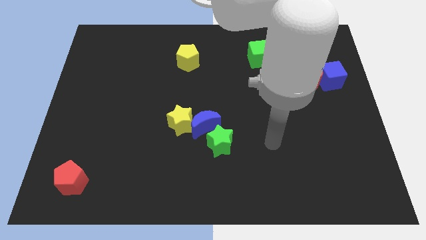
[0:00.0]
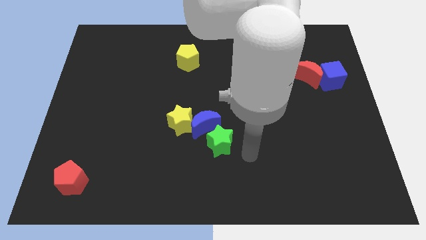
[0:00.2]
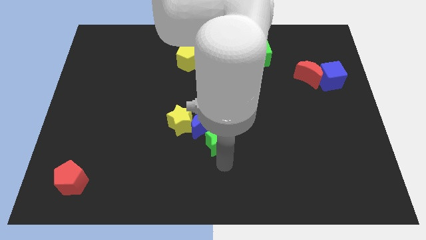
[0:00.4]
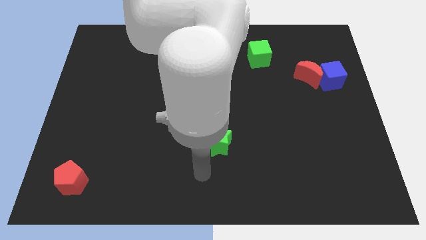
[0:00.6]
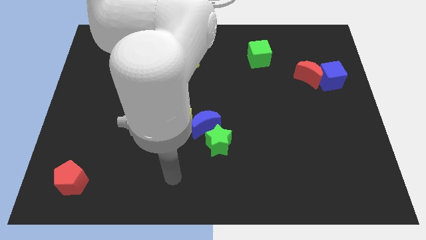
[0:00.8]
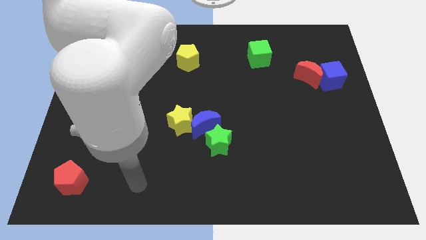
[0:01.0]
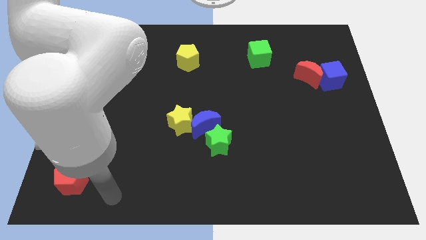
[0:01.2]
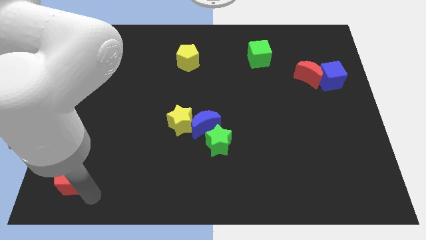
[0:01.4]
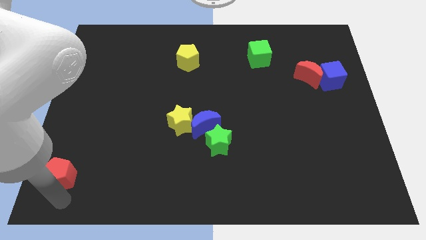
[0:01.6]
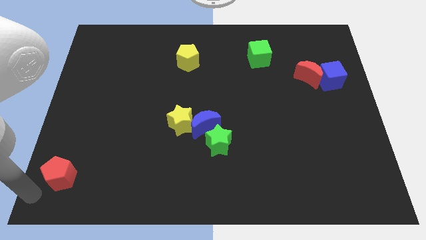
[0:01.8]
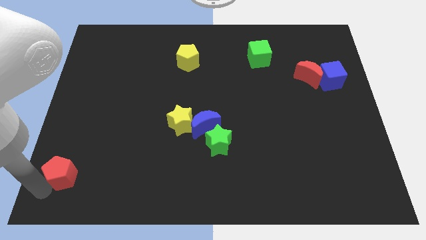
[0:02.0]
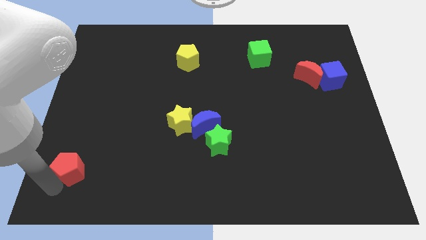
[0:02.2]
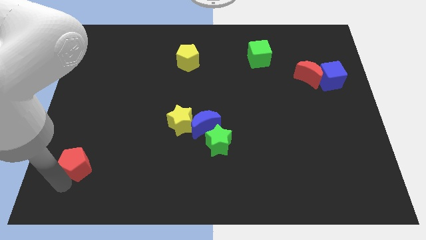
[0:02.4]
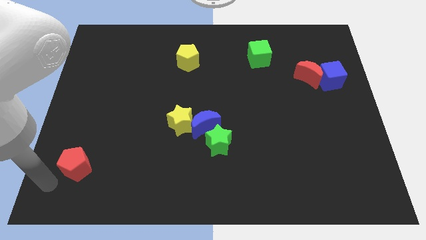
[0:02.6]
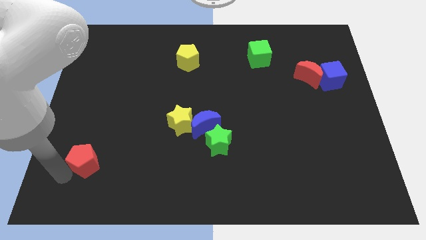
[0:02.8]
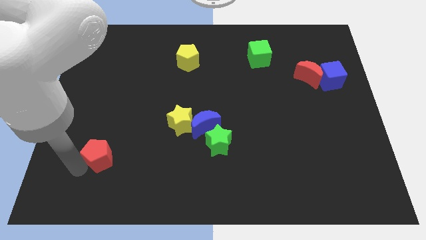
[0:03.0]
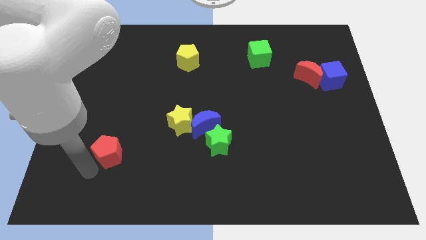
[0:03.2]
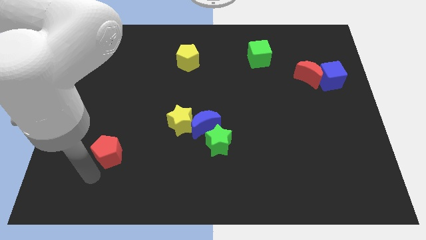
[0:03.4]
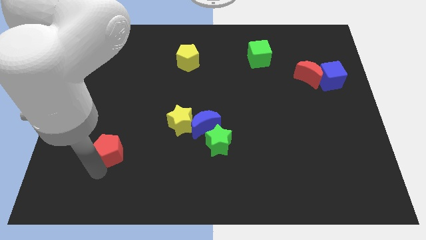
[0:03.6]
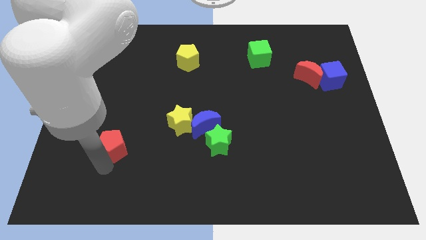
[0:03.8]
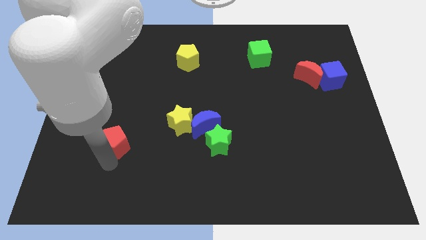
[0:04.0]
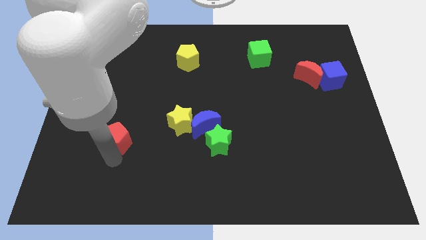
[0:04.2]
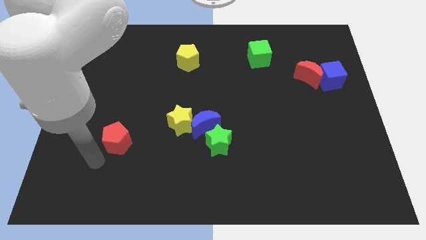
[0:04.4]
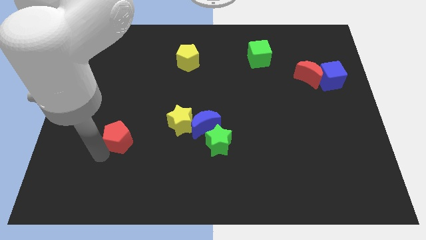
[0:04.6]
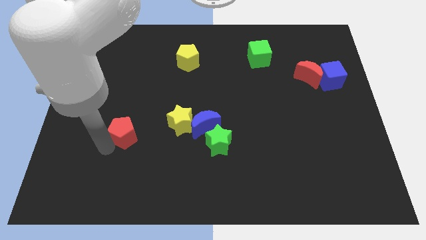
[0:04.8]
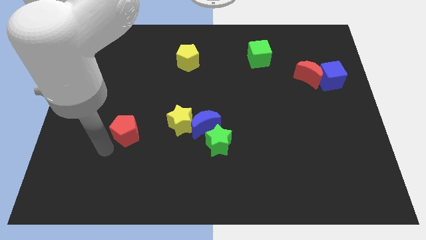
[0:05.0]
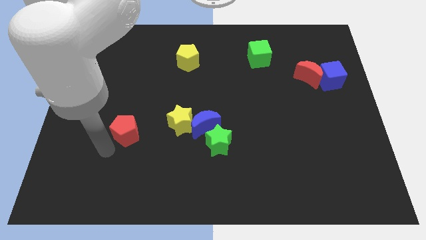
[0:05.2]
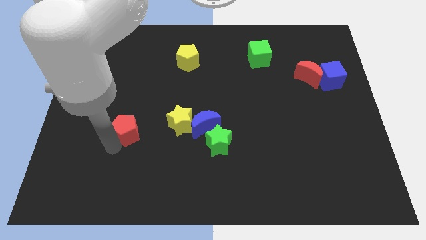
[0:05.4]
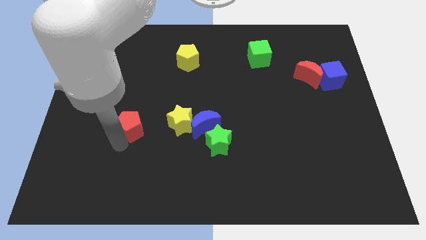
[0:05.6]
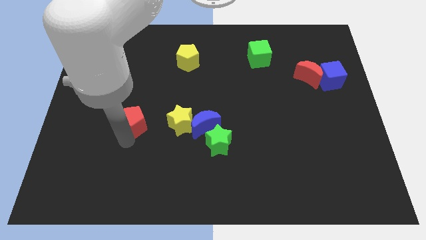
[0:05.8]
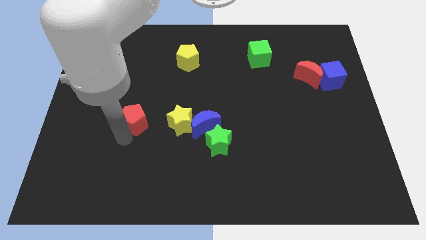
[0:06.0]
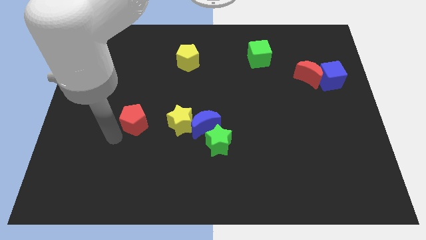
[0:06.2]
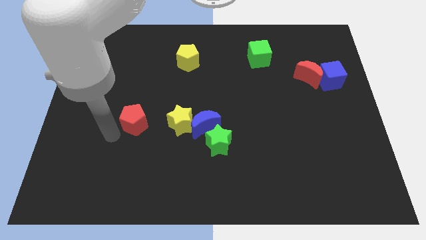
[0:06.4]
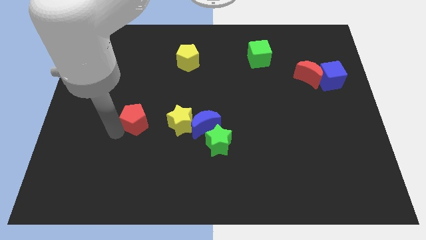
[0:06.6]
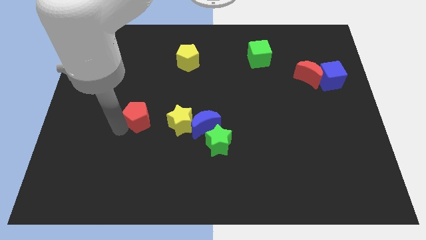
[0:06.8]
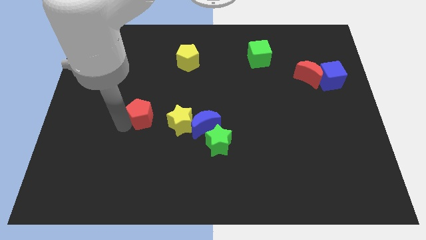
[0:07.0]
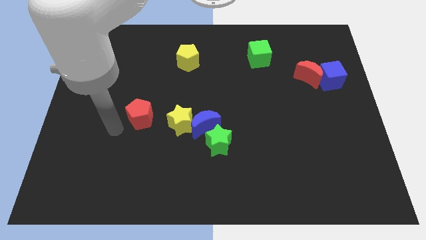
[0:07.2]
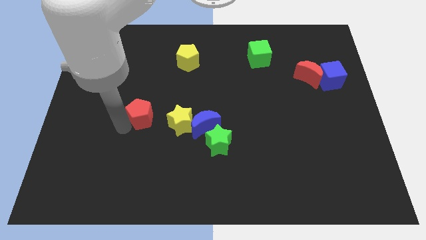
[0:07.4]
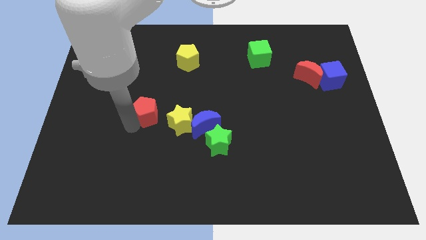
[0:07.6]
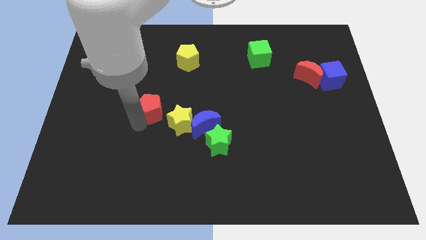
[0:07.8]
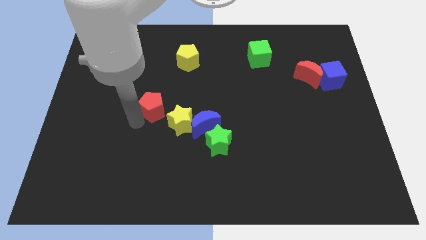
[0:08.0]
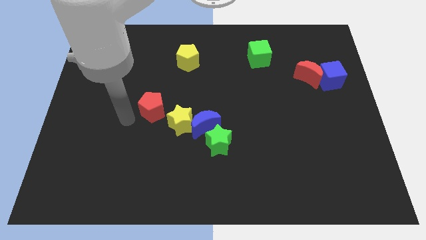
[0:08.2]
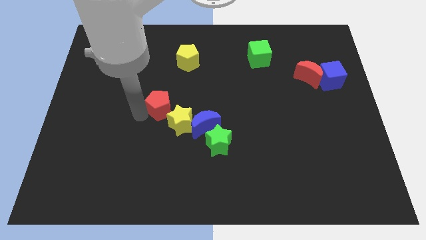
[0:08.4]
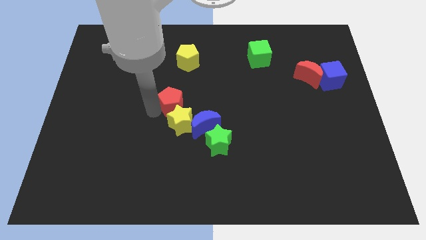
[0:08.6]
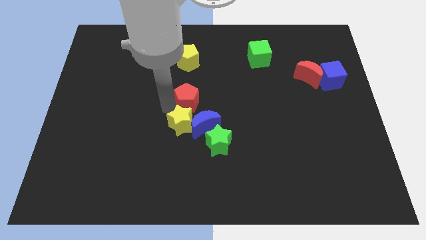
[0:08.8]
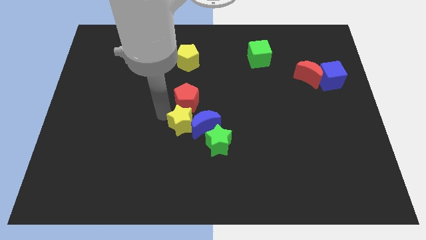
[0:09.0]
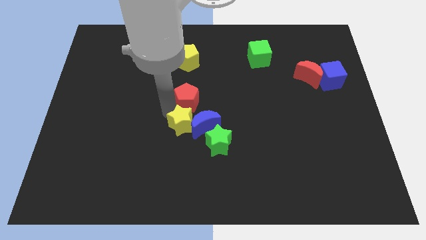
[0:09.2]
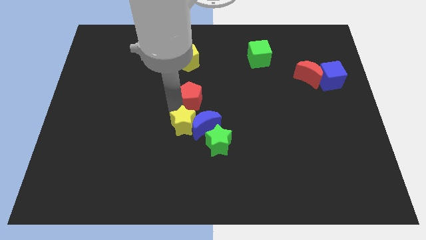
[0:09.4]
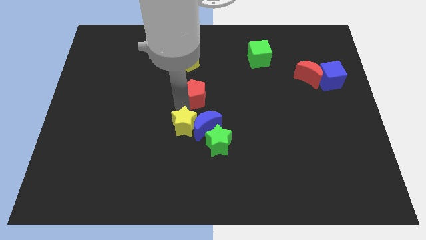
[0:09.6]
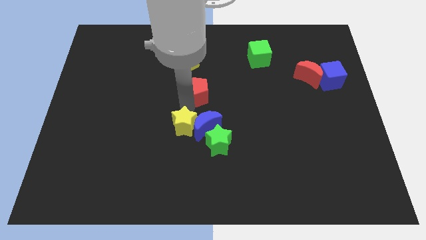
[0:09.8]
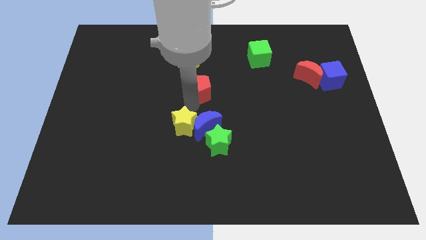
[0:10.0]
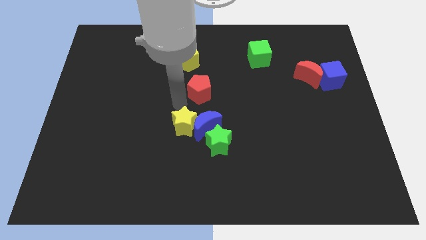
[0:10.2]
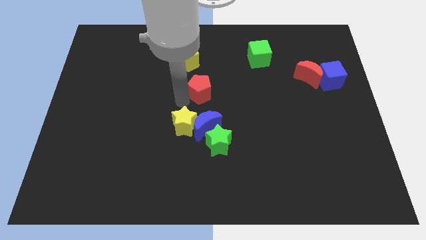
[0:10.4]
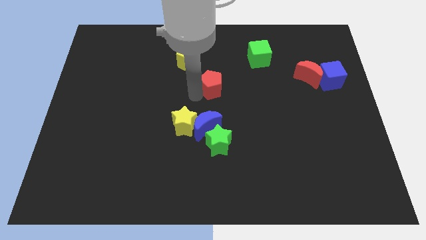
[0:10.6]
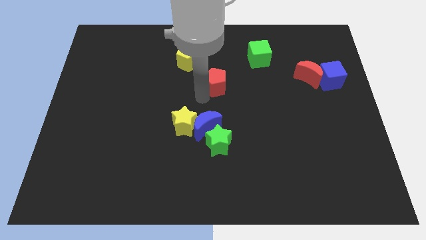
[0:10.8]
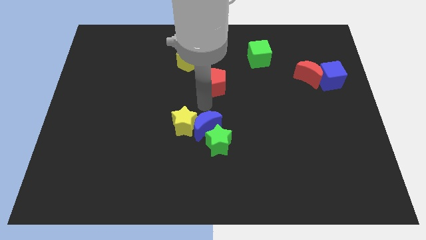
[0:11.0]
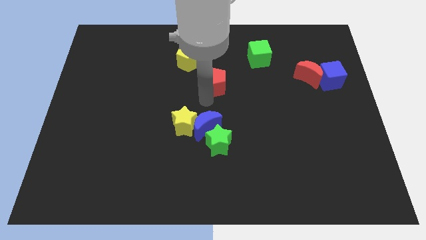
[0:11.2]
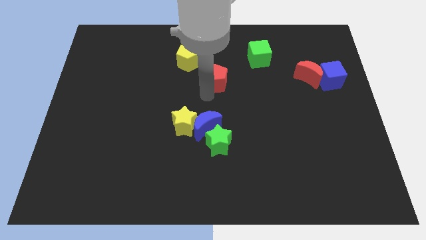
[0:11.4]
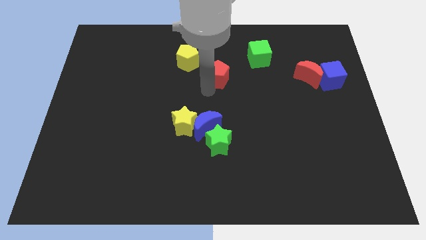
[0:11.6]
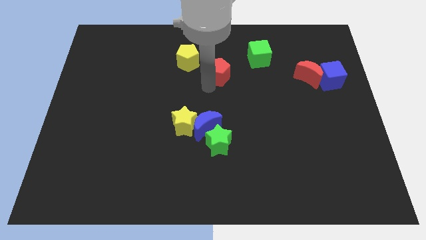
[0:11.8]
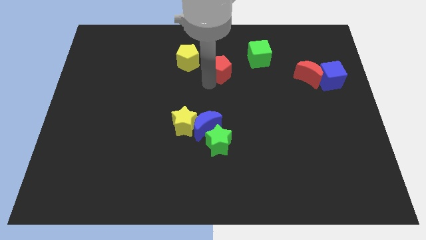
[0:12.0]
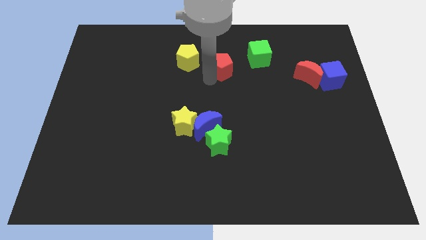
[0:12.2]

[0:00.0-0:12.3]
push the red pentagon left of the green cube
